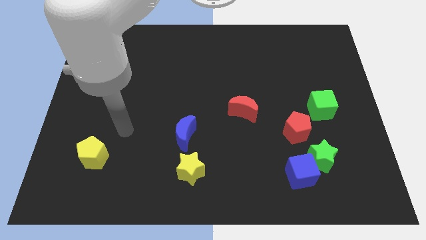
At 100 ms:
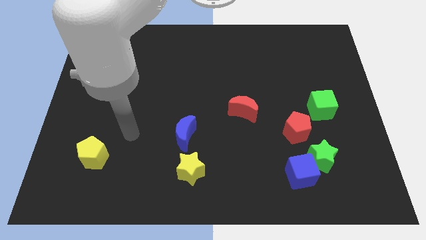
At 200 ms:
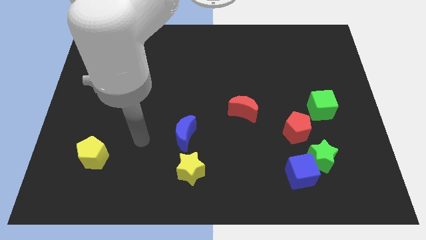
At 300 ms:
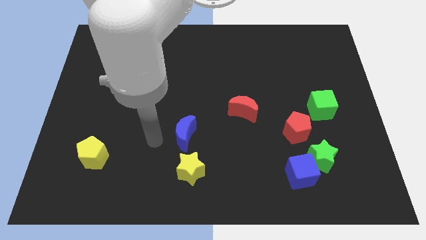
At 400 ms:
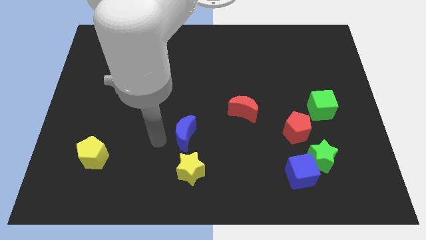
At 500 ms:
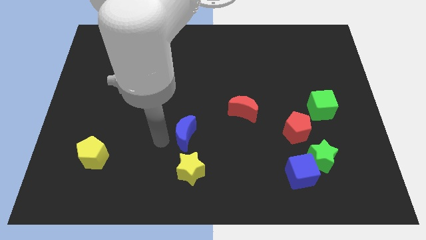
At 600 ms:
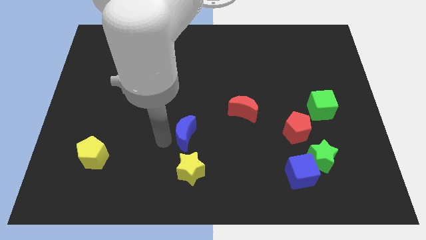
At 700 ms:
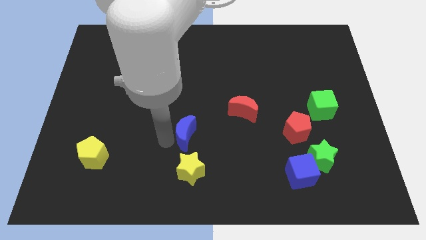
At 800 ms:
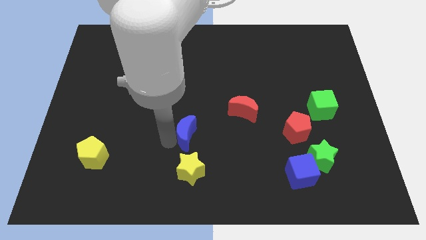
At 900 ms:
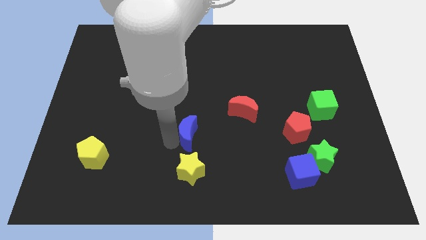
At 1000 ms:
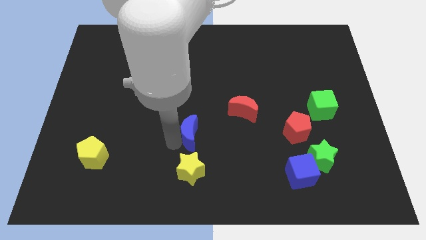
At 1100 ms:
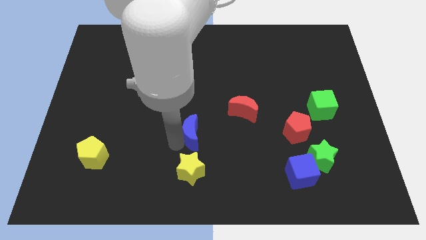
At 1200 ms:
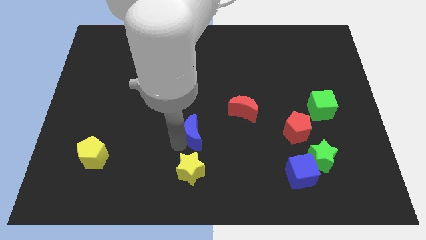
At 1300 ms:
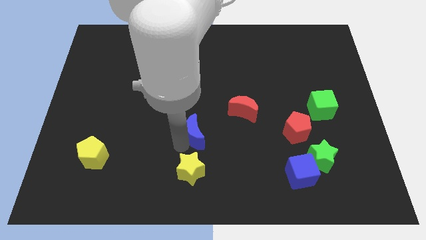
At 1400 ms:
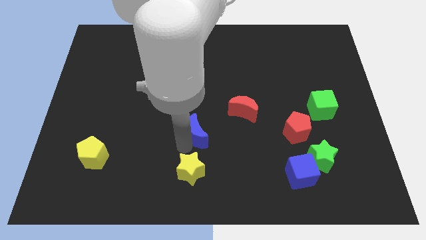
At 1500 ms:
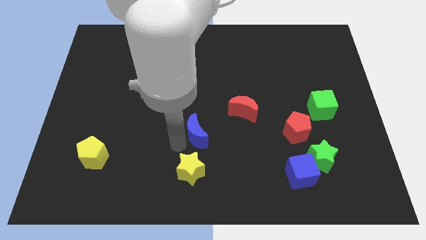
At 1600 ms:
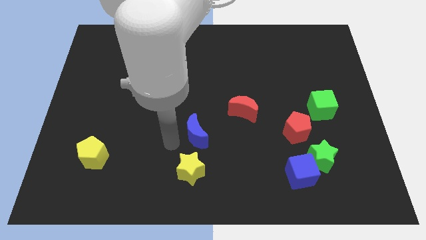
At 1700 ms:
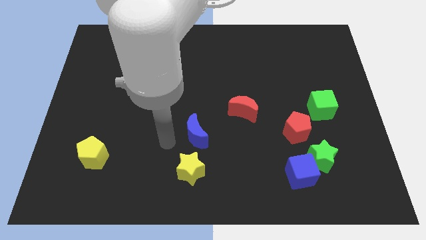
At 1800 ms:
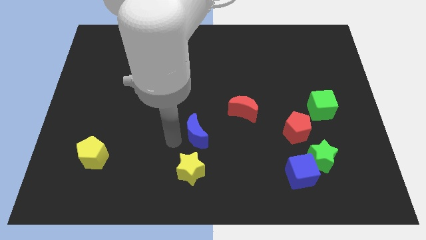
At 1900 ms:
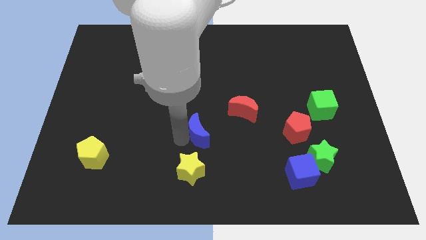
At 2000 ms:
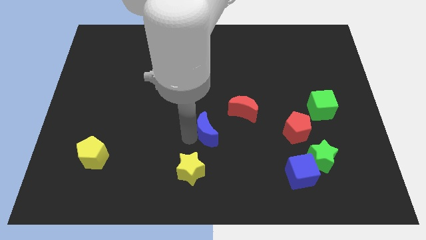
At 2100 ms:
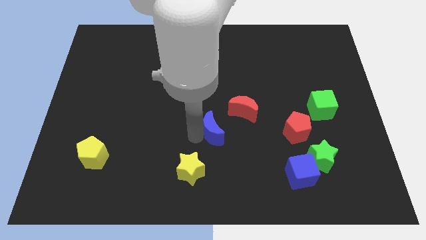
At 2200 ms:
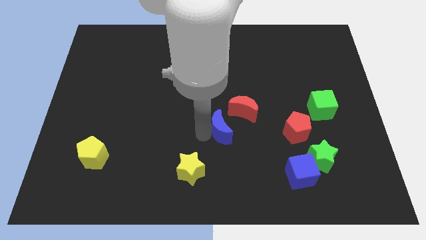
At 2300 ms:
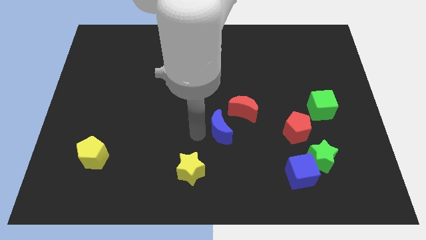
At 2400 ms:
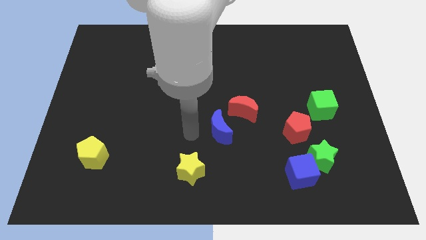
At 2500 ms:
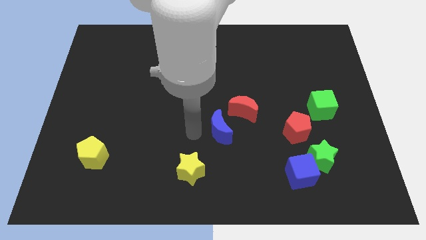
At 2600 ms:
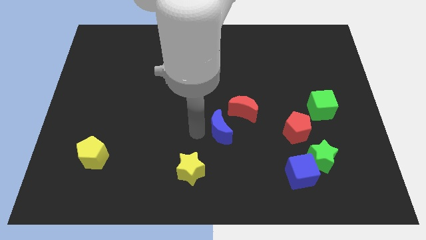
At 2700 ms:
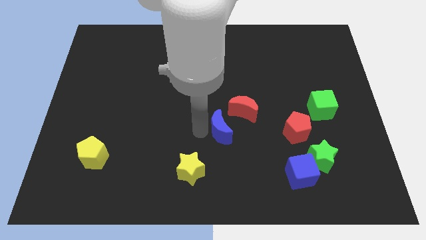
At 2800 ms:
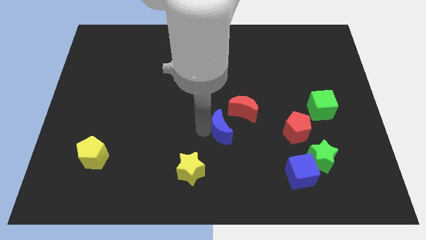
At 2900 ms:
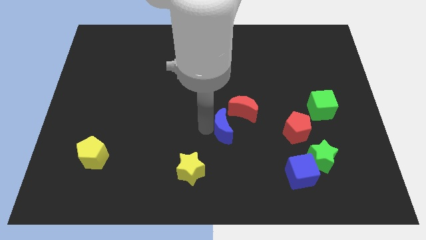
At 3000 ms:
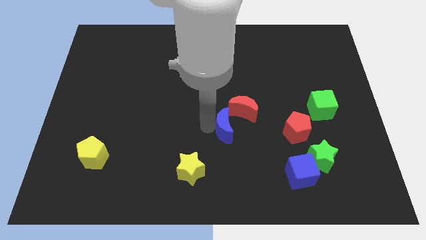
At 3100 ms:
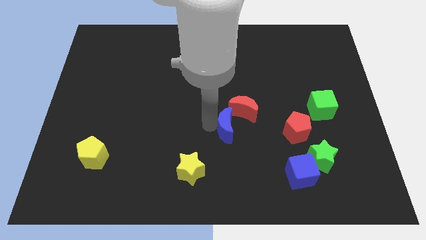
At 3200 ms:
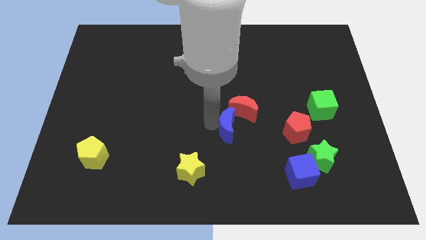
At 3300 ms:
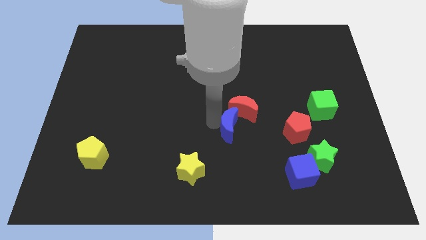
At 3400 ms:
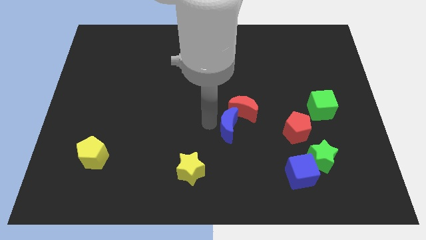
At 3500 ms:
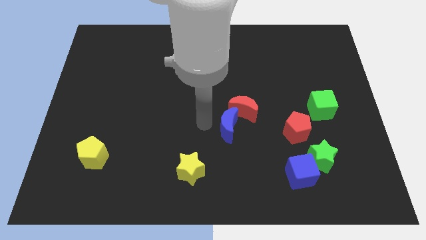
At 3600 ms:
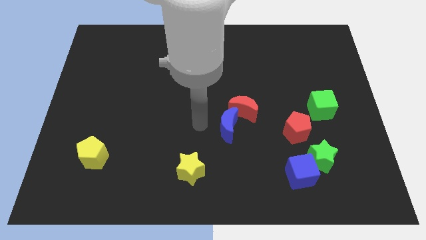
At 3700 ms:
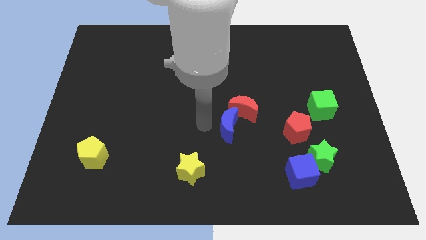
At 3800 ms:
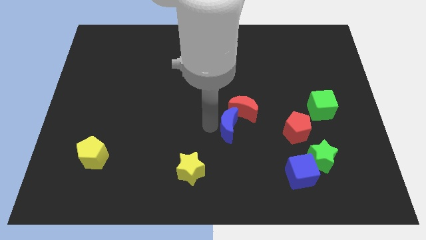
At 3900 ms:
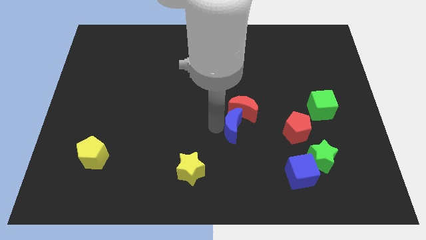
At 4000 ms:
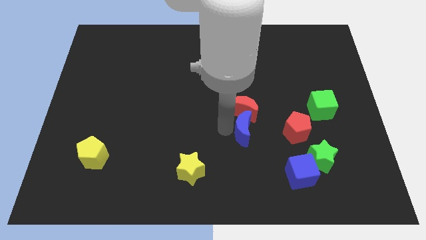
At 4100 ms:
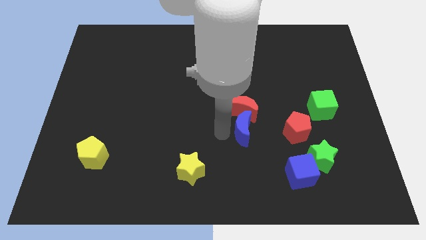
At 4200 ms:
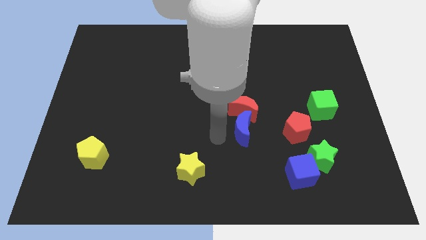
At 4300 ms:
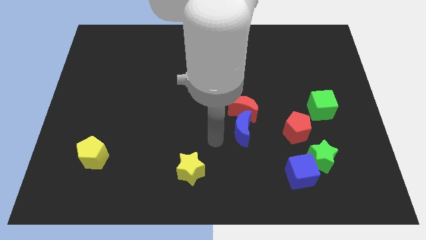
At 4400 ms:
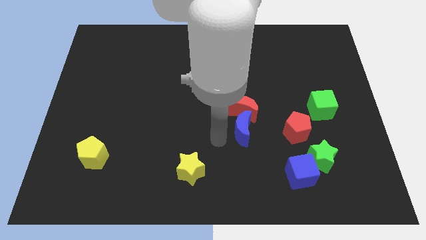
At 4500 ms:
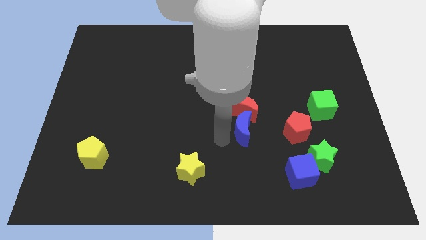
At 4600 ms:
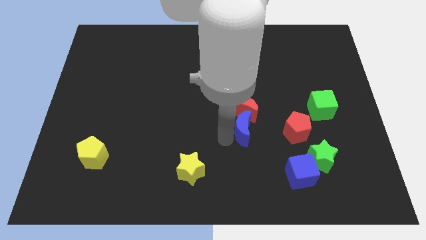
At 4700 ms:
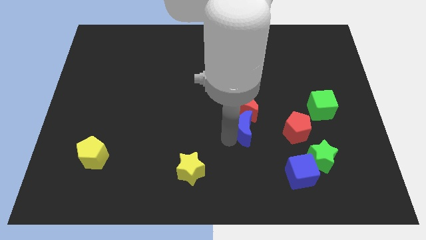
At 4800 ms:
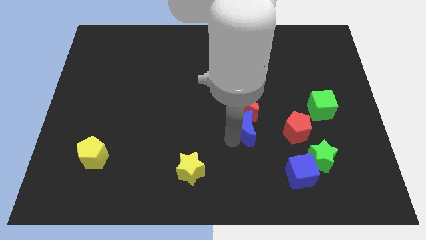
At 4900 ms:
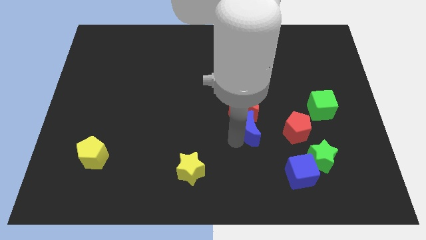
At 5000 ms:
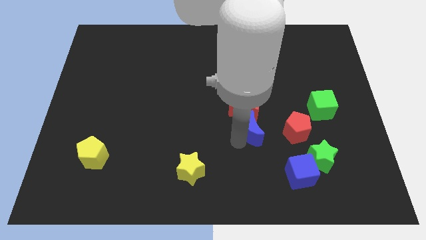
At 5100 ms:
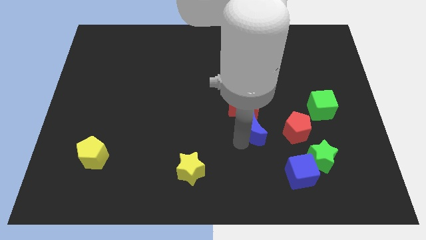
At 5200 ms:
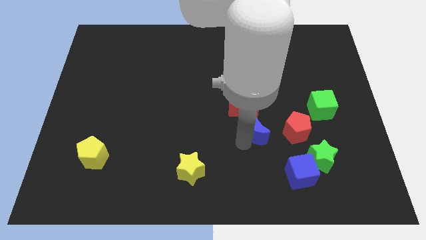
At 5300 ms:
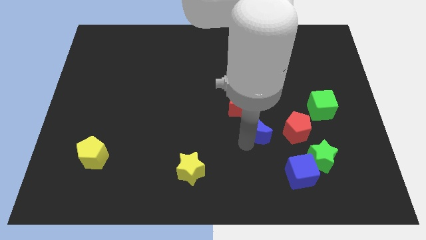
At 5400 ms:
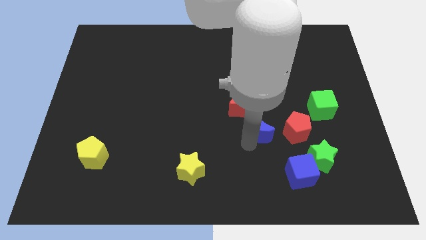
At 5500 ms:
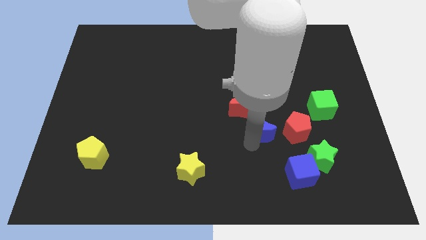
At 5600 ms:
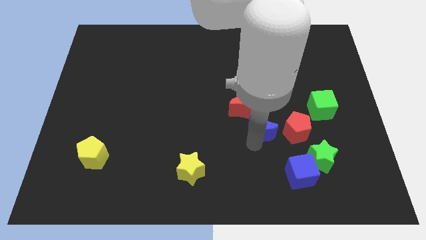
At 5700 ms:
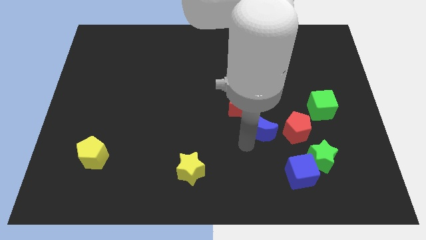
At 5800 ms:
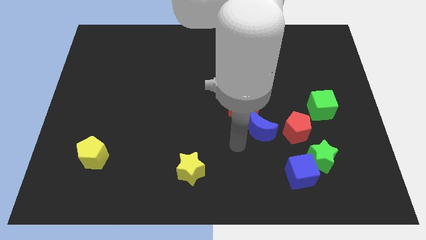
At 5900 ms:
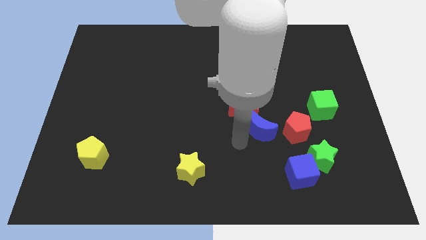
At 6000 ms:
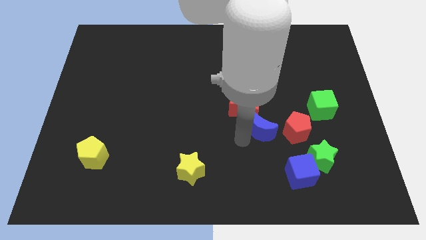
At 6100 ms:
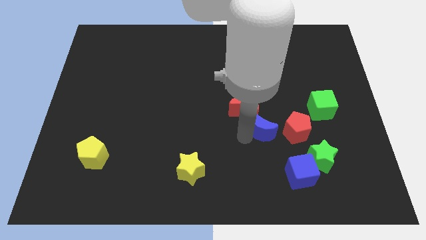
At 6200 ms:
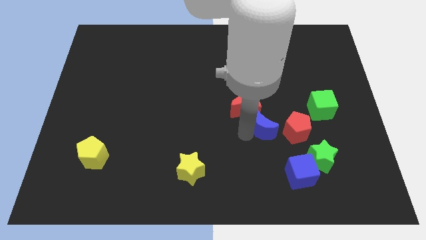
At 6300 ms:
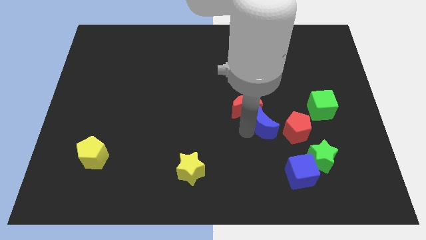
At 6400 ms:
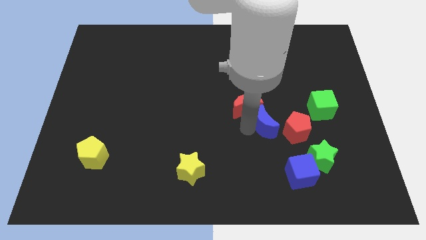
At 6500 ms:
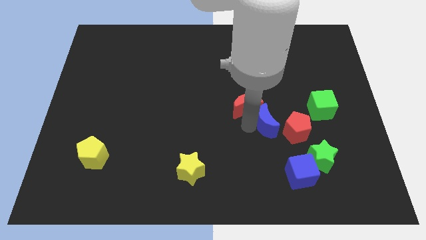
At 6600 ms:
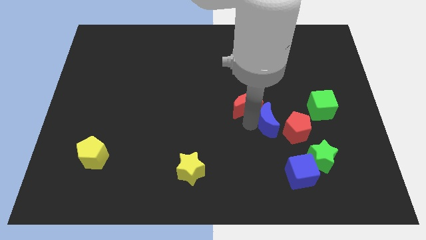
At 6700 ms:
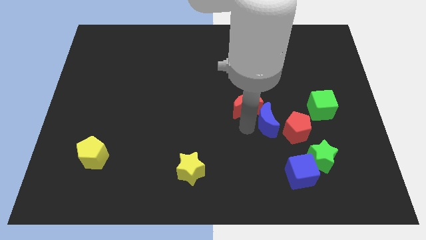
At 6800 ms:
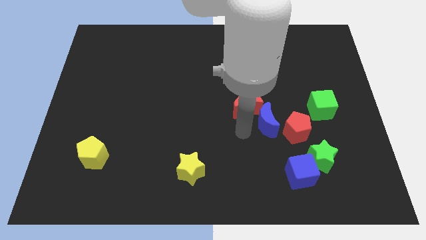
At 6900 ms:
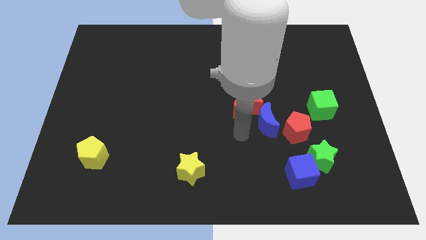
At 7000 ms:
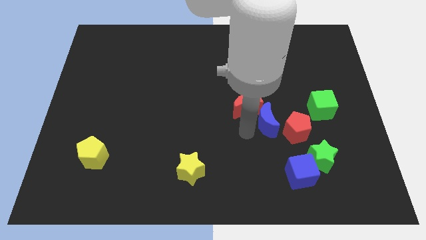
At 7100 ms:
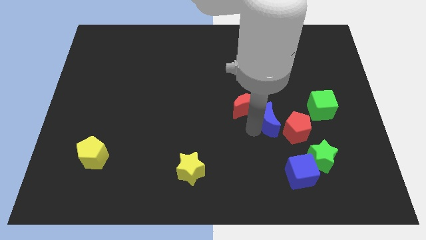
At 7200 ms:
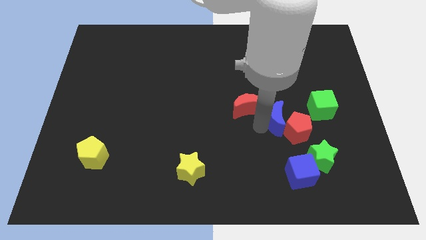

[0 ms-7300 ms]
put the blue moon above the blue cube
